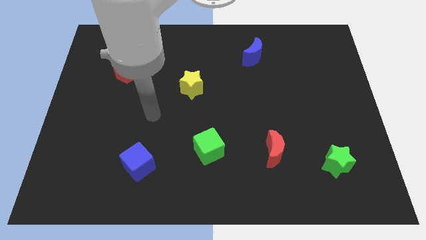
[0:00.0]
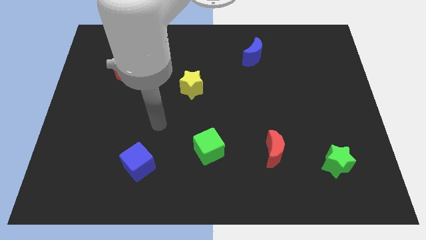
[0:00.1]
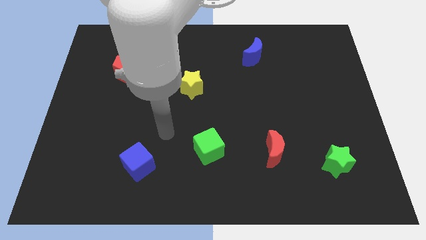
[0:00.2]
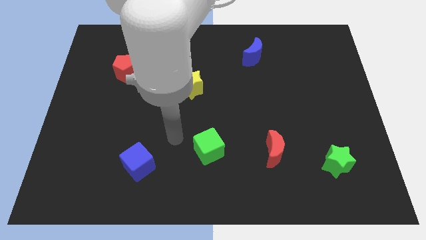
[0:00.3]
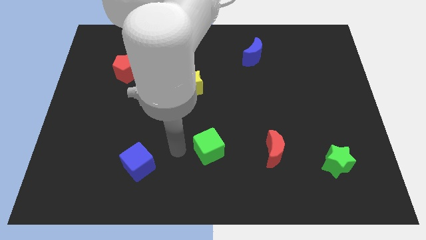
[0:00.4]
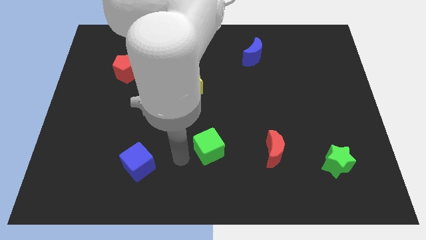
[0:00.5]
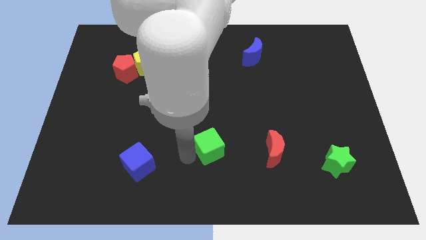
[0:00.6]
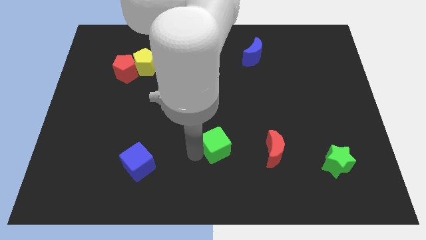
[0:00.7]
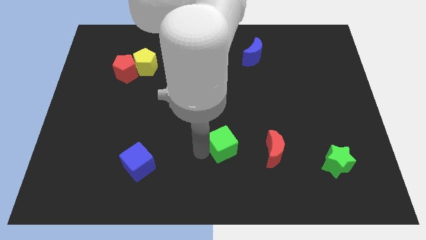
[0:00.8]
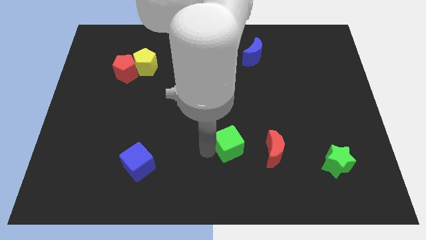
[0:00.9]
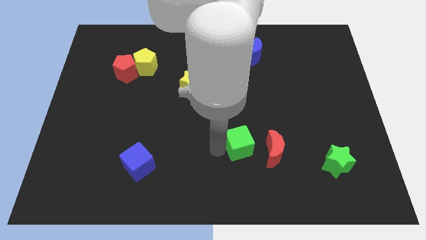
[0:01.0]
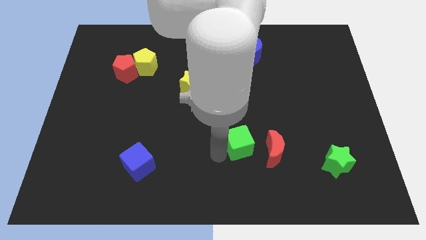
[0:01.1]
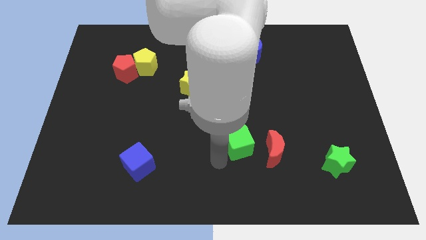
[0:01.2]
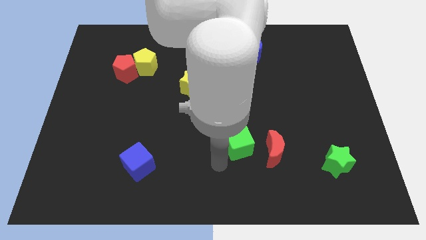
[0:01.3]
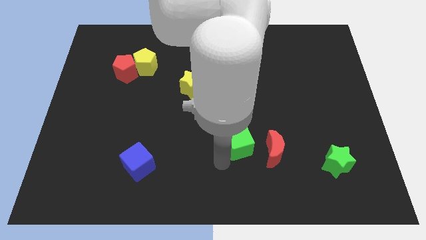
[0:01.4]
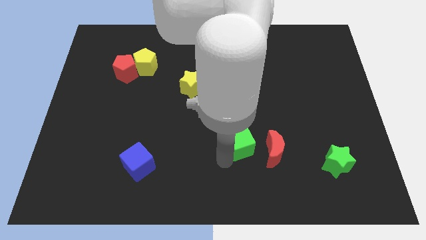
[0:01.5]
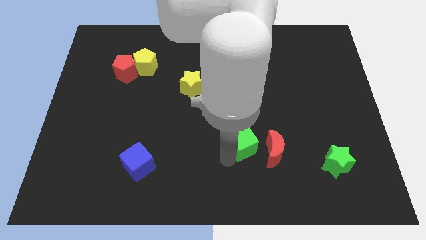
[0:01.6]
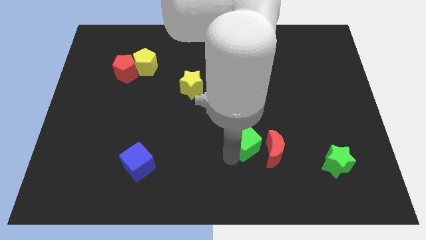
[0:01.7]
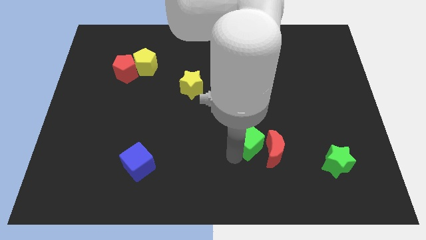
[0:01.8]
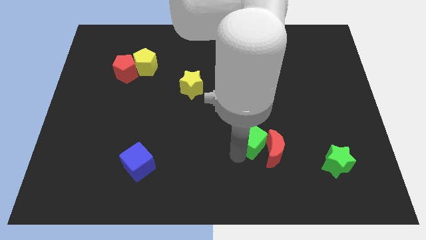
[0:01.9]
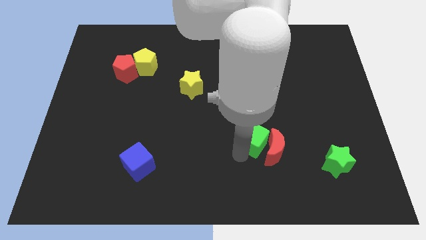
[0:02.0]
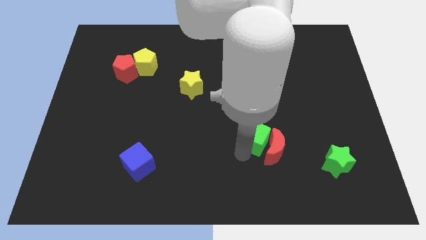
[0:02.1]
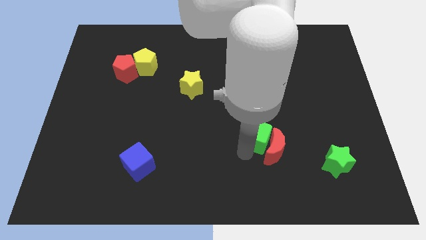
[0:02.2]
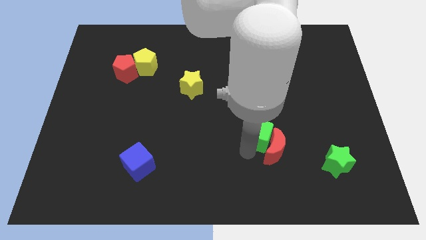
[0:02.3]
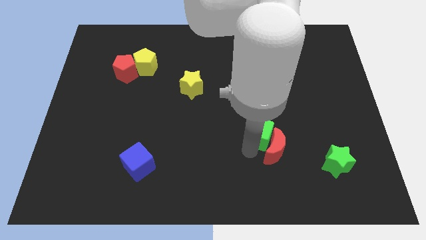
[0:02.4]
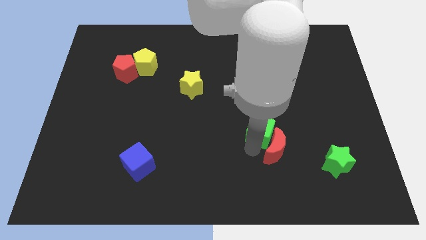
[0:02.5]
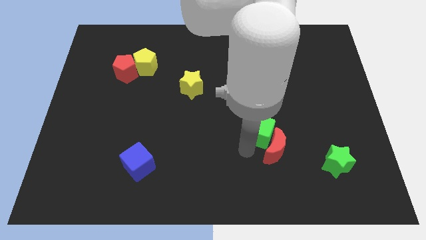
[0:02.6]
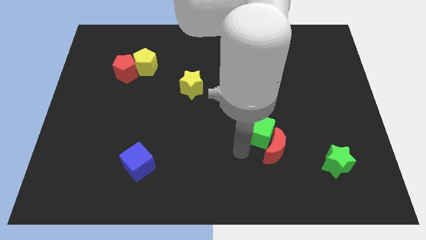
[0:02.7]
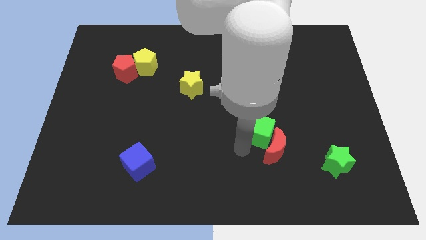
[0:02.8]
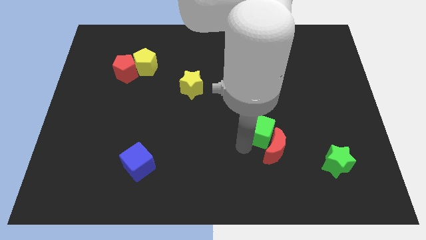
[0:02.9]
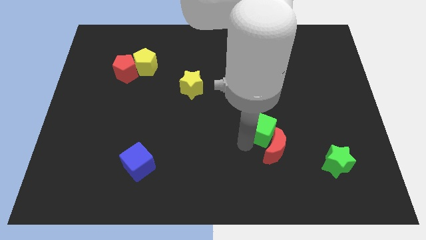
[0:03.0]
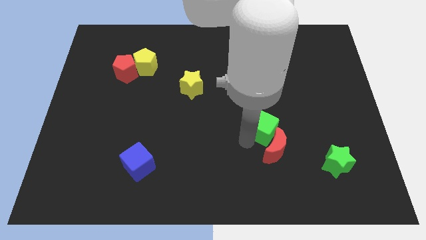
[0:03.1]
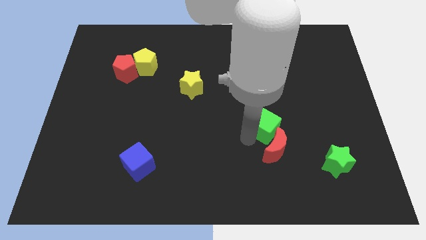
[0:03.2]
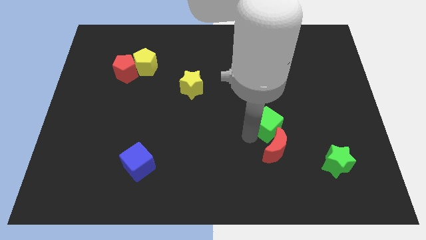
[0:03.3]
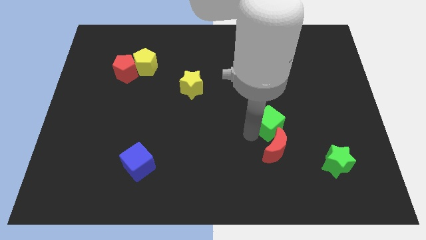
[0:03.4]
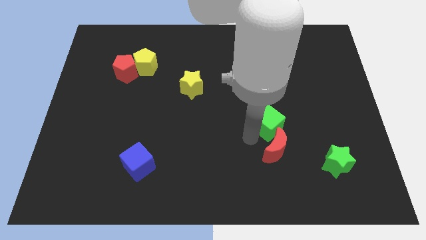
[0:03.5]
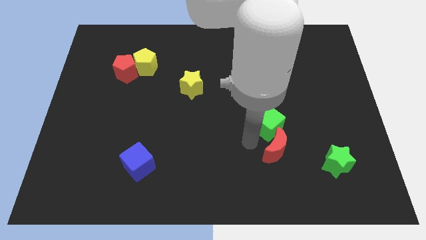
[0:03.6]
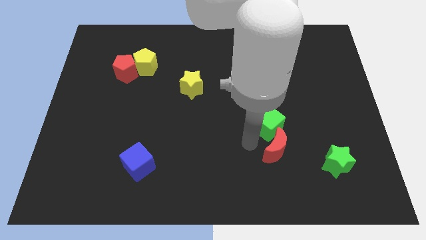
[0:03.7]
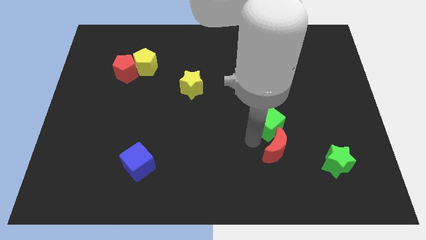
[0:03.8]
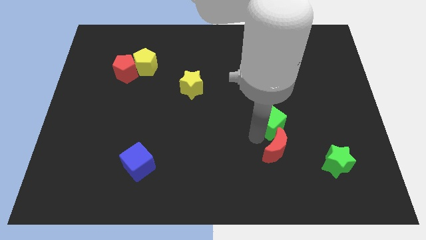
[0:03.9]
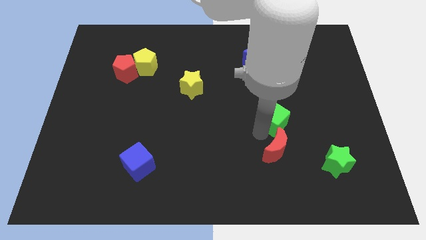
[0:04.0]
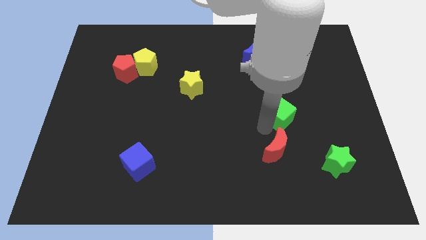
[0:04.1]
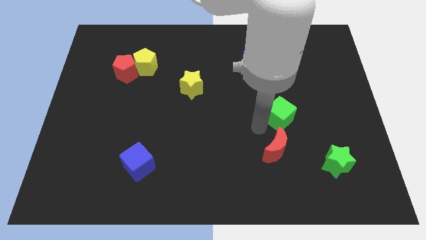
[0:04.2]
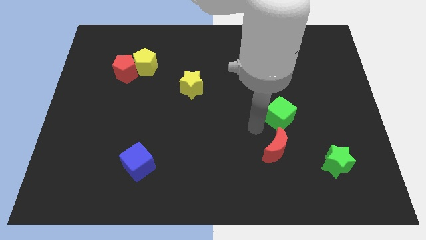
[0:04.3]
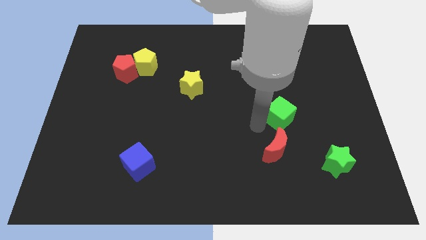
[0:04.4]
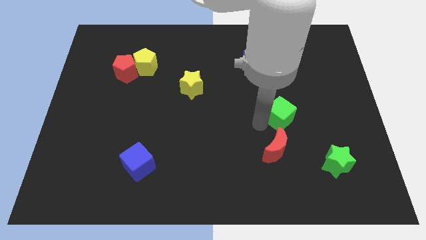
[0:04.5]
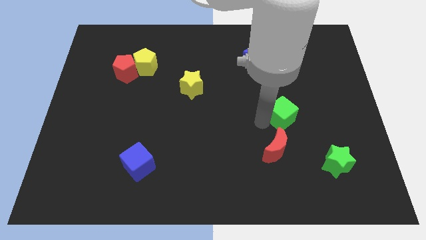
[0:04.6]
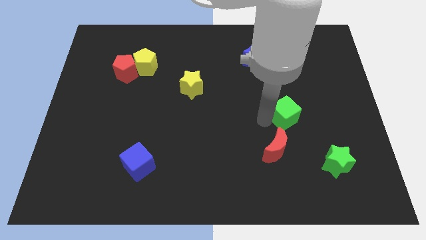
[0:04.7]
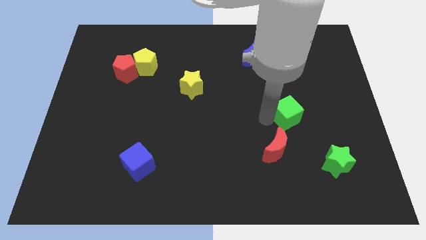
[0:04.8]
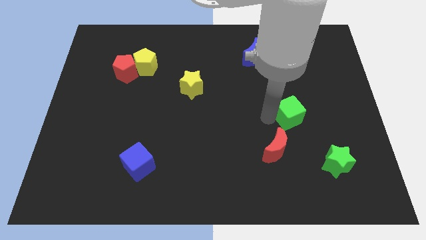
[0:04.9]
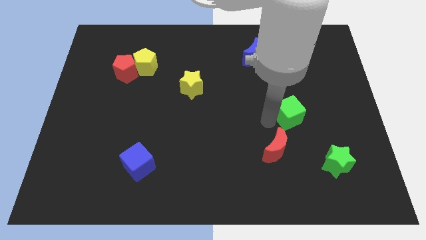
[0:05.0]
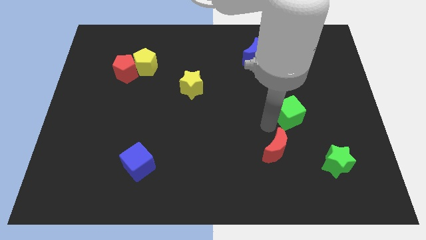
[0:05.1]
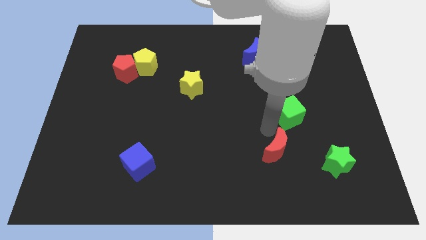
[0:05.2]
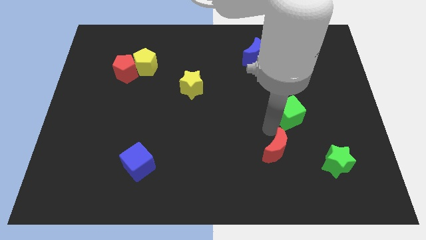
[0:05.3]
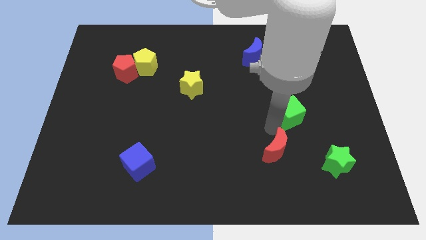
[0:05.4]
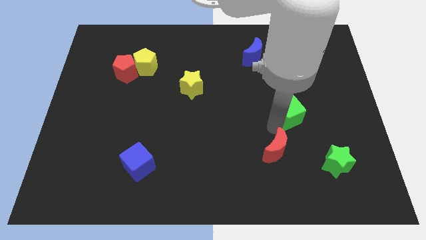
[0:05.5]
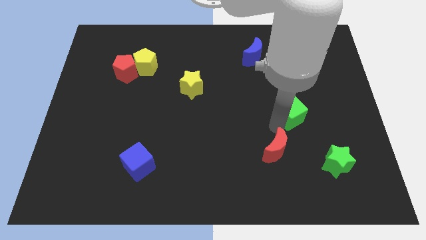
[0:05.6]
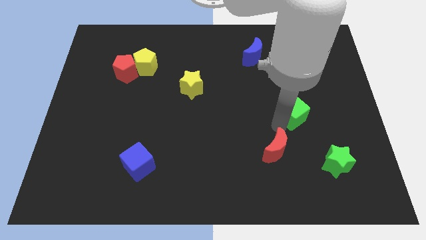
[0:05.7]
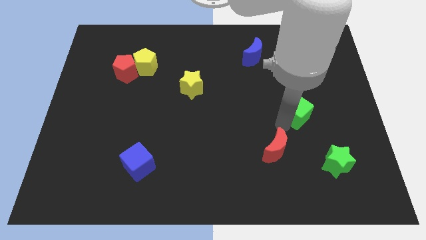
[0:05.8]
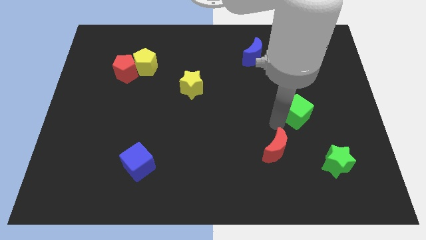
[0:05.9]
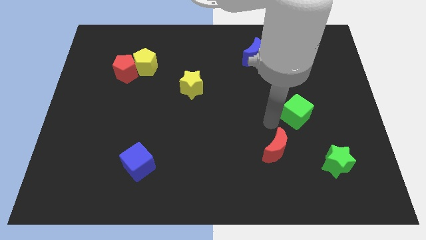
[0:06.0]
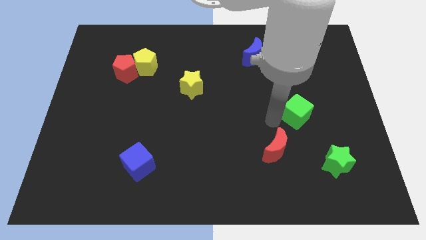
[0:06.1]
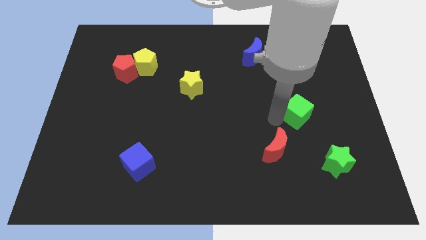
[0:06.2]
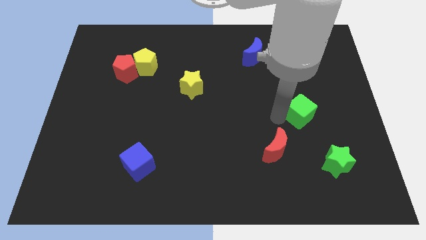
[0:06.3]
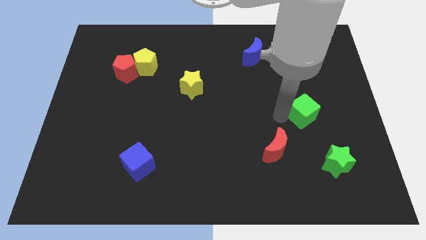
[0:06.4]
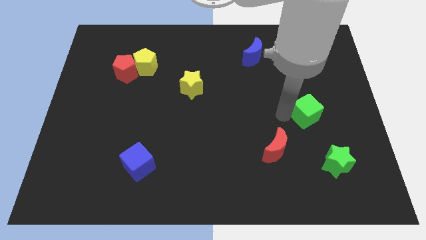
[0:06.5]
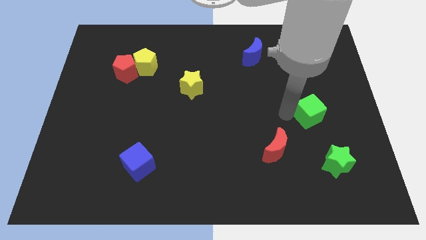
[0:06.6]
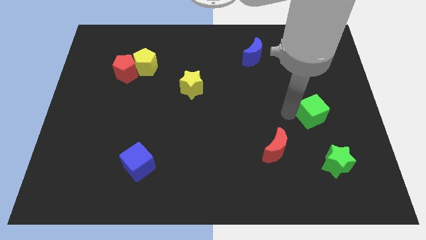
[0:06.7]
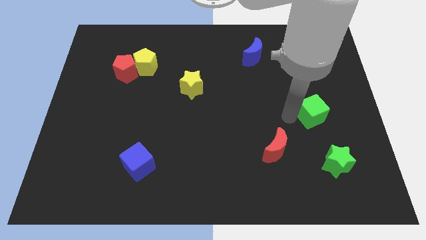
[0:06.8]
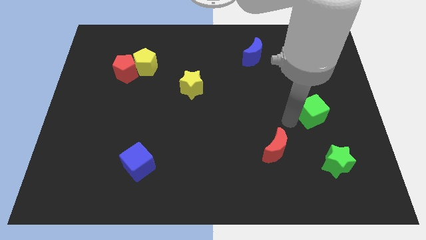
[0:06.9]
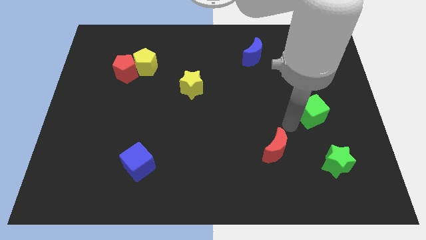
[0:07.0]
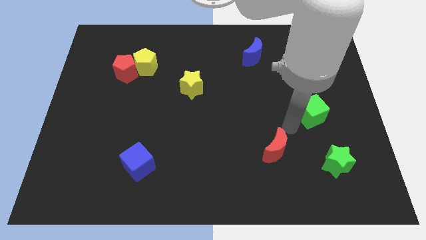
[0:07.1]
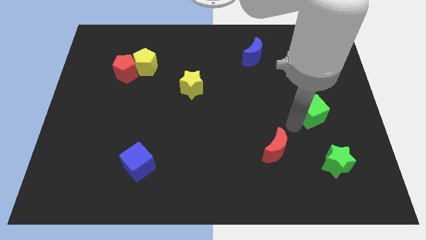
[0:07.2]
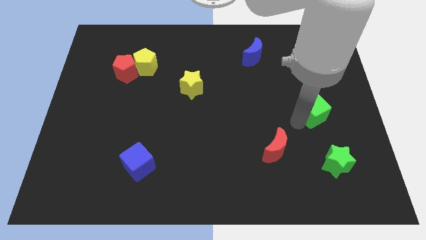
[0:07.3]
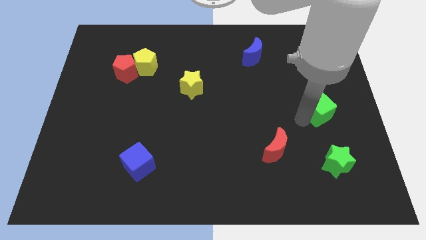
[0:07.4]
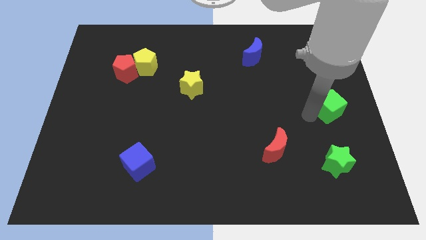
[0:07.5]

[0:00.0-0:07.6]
put the green cube to the right side
